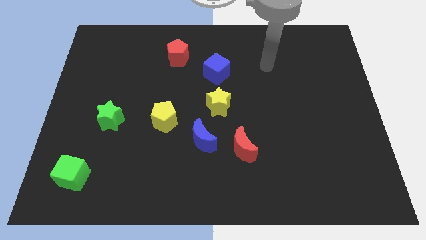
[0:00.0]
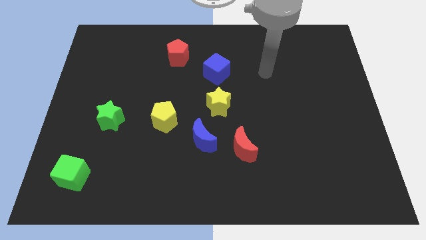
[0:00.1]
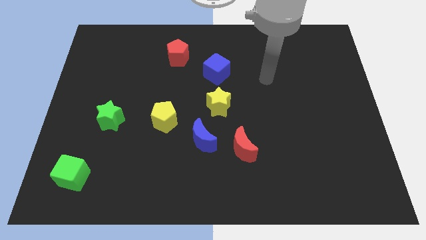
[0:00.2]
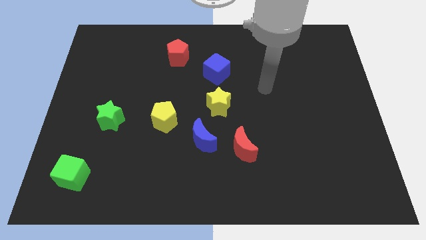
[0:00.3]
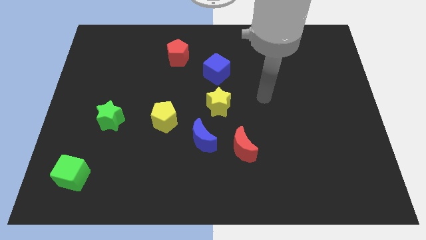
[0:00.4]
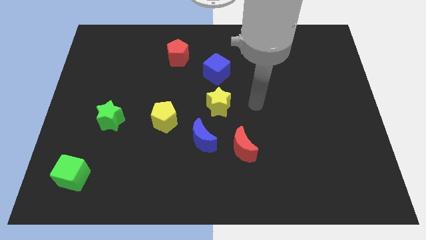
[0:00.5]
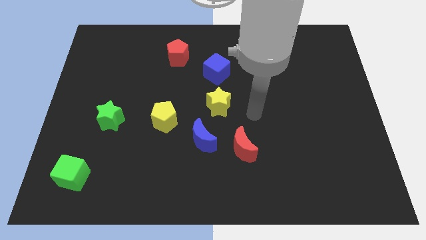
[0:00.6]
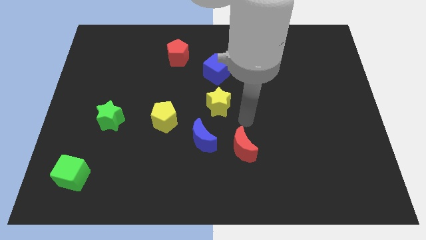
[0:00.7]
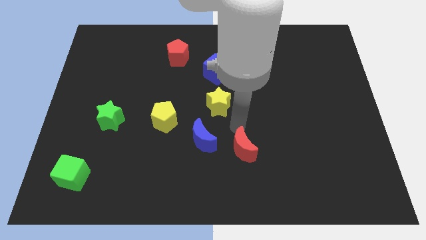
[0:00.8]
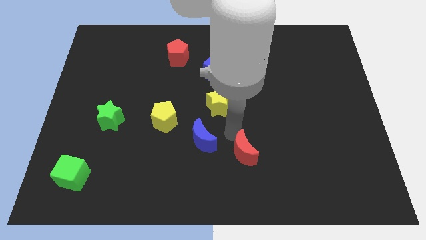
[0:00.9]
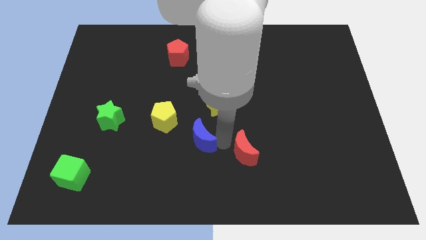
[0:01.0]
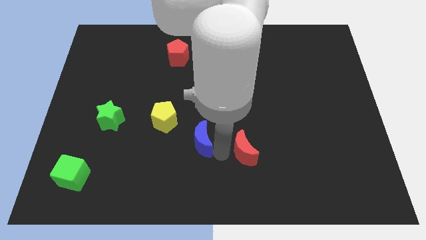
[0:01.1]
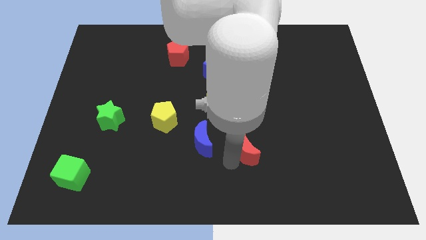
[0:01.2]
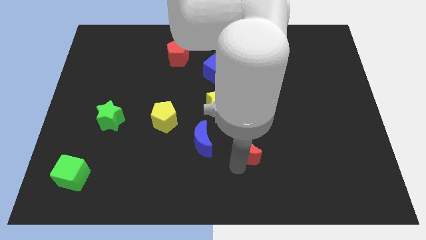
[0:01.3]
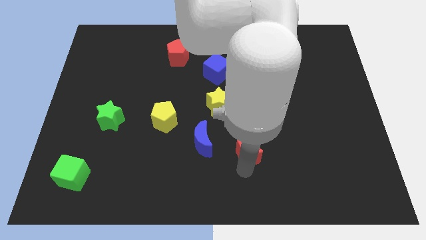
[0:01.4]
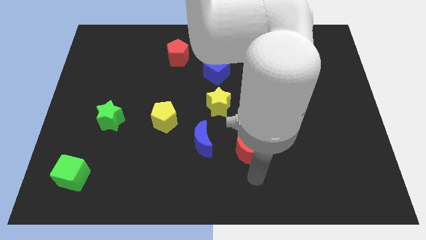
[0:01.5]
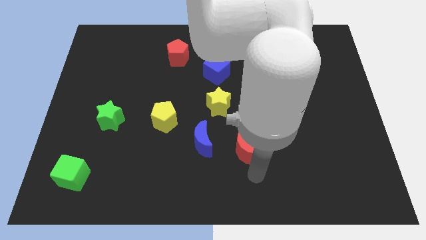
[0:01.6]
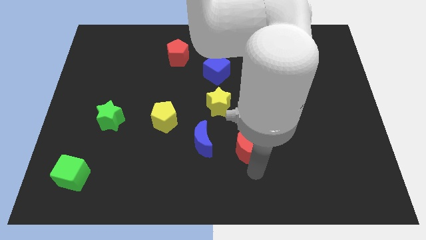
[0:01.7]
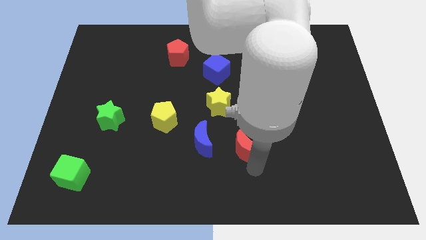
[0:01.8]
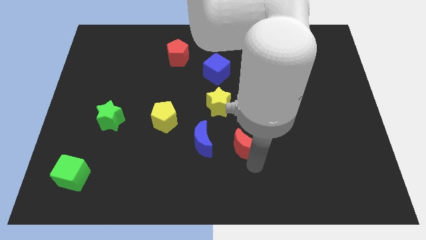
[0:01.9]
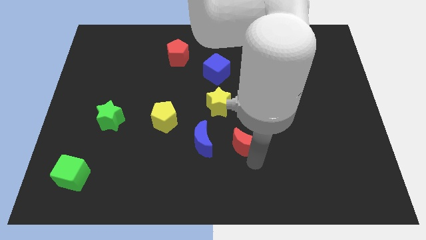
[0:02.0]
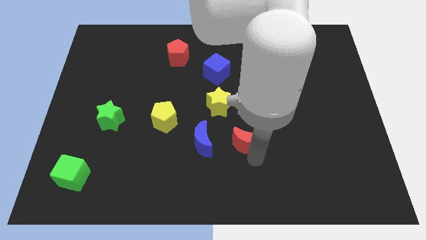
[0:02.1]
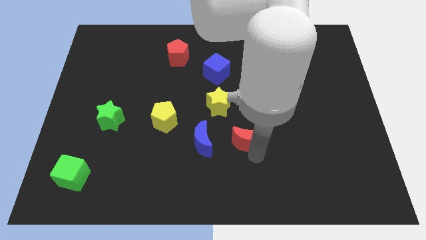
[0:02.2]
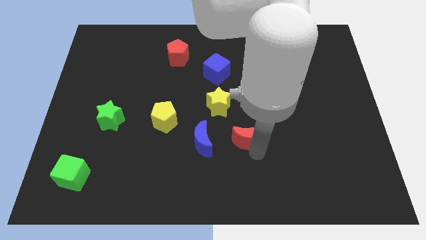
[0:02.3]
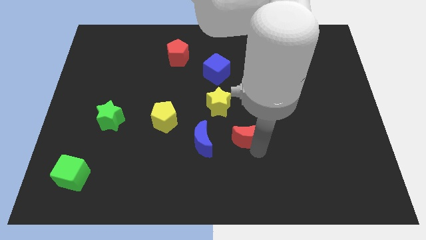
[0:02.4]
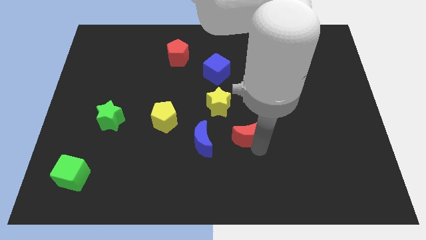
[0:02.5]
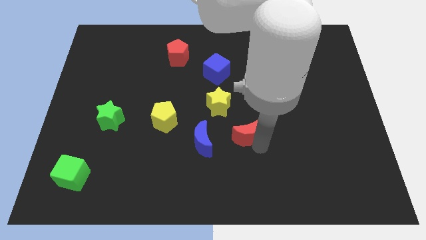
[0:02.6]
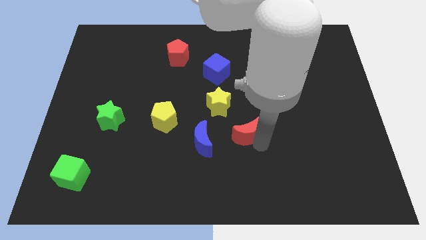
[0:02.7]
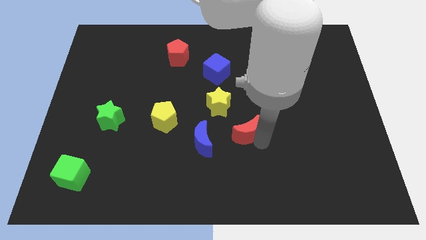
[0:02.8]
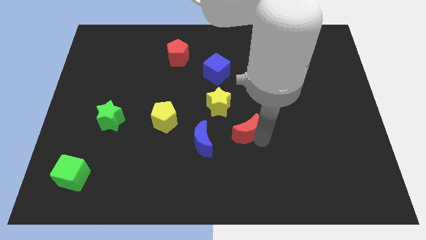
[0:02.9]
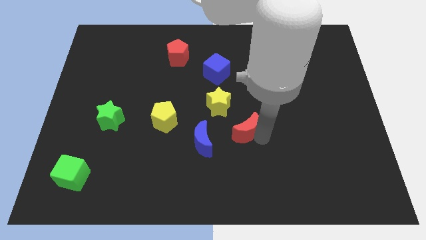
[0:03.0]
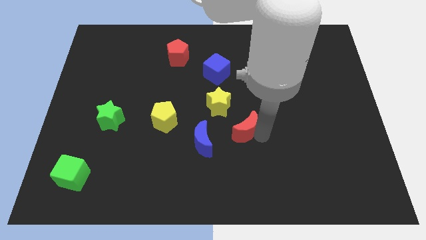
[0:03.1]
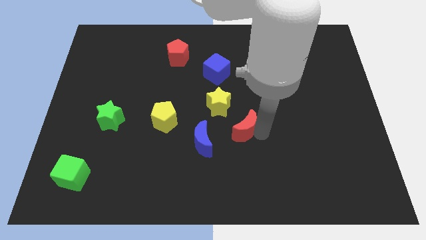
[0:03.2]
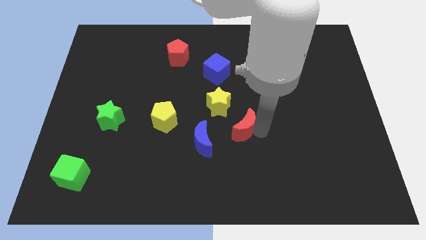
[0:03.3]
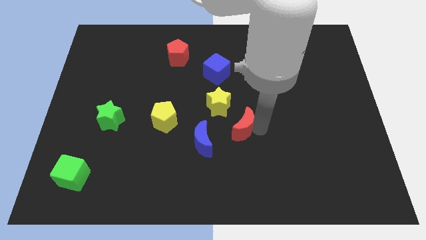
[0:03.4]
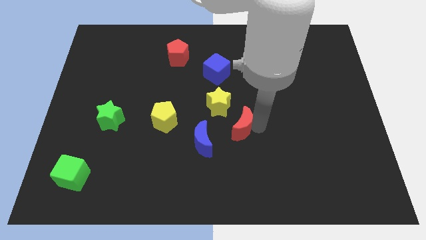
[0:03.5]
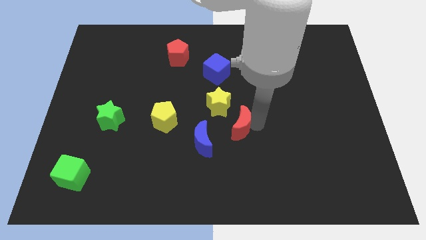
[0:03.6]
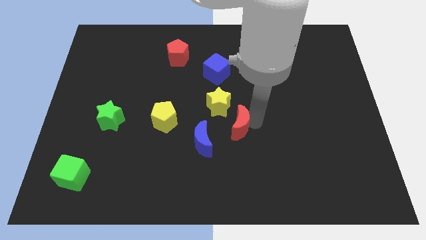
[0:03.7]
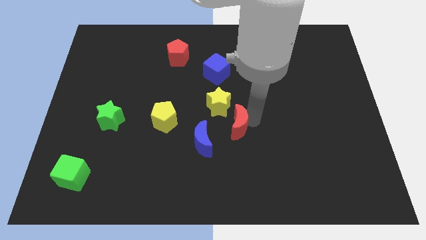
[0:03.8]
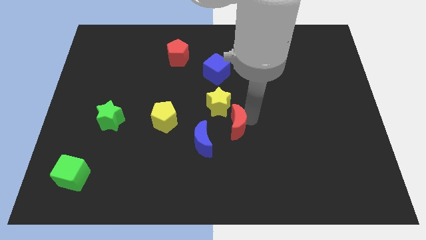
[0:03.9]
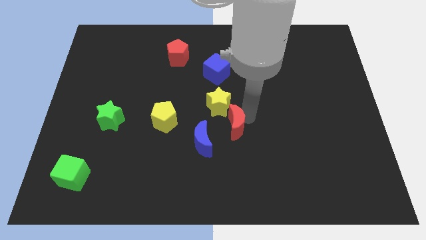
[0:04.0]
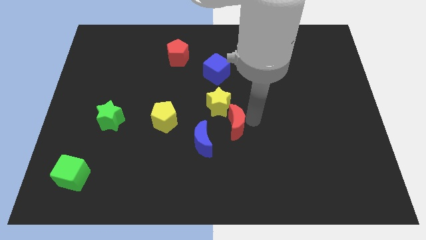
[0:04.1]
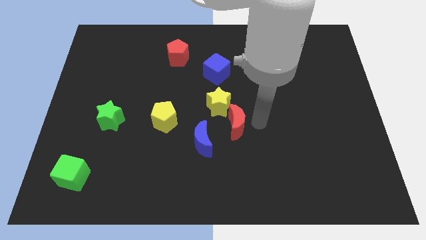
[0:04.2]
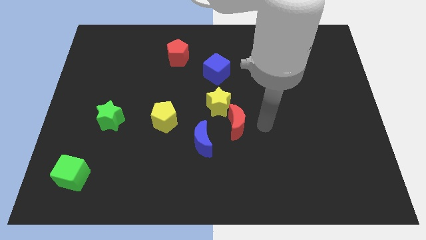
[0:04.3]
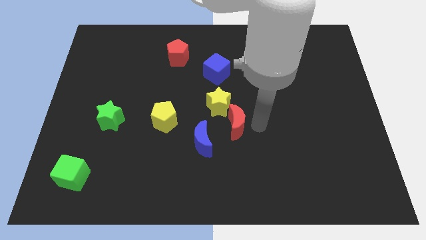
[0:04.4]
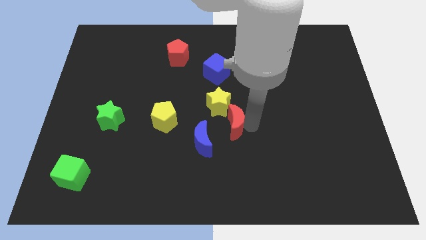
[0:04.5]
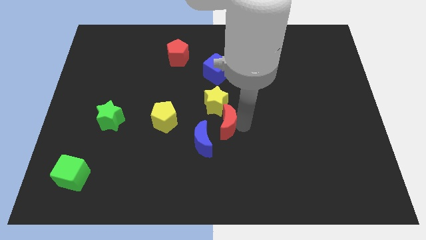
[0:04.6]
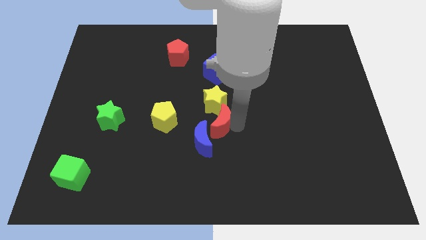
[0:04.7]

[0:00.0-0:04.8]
slightly push the red moon upwards and left

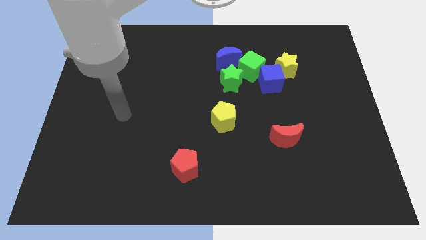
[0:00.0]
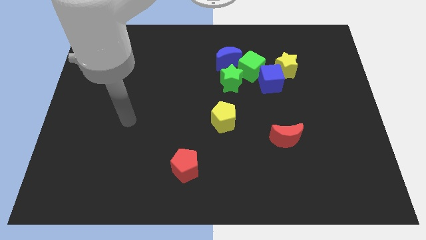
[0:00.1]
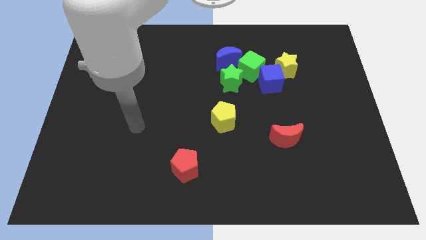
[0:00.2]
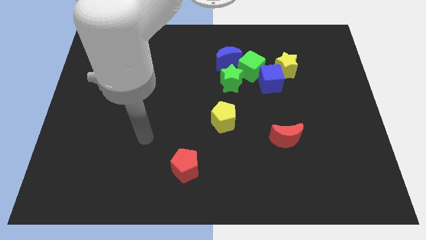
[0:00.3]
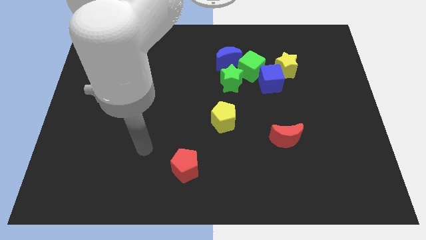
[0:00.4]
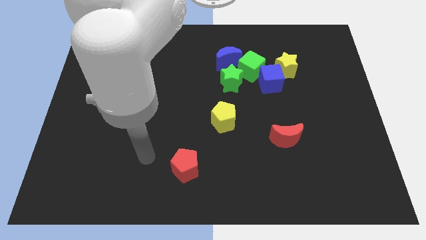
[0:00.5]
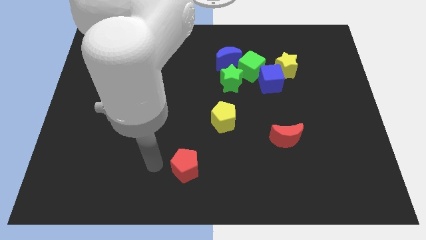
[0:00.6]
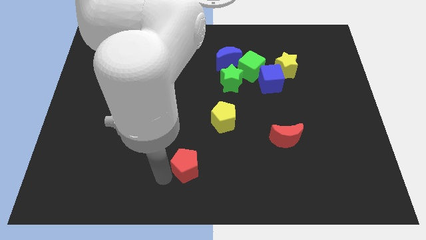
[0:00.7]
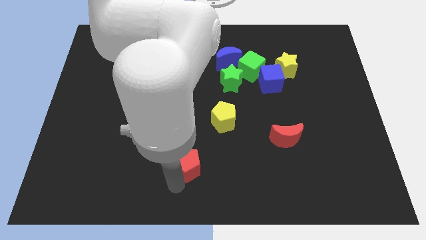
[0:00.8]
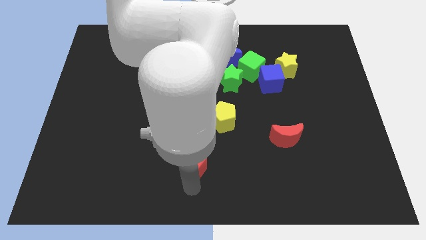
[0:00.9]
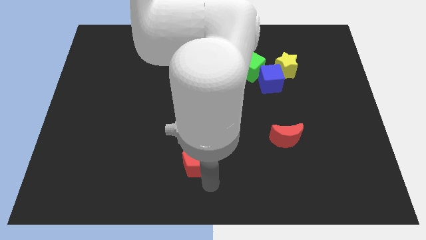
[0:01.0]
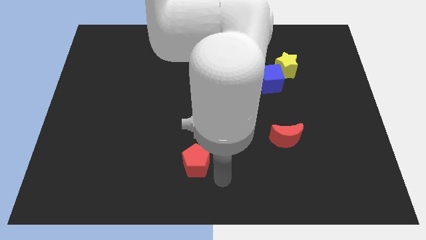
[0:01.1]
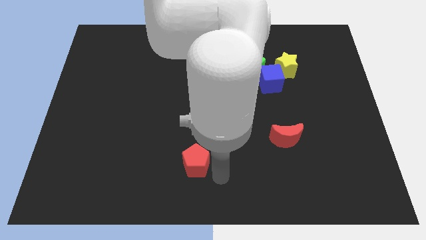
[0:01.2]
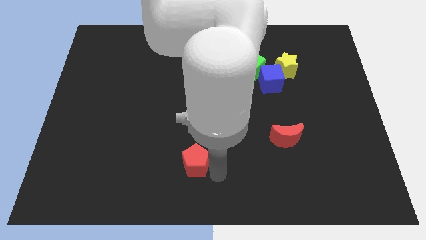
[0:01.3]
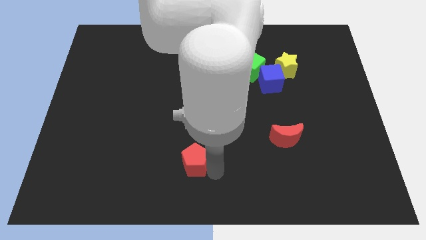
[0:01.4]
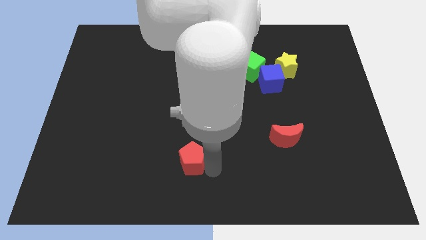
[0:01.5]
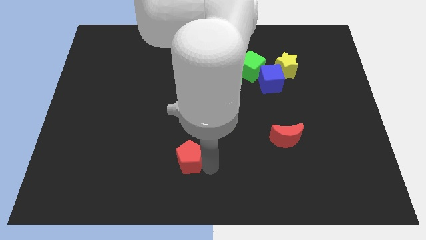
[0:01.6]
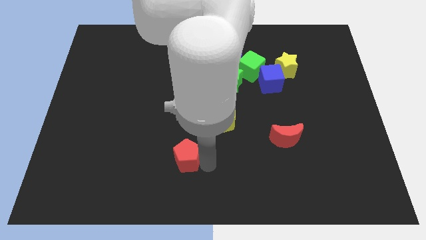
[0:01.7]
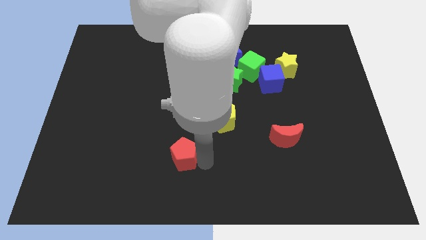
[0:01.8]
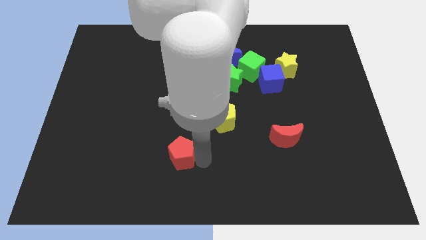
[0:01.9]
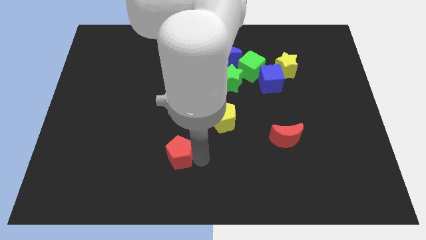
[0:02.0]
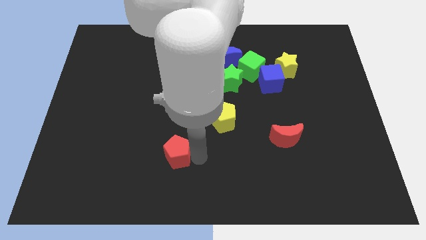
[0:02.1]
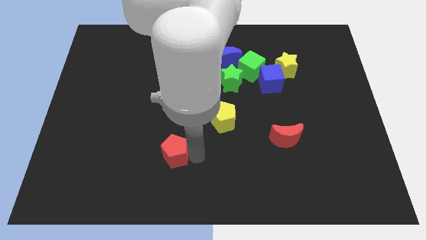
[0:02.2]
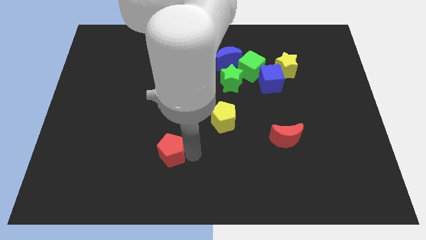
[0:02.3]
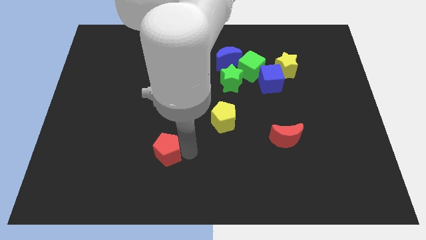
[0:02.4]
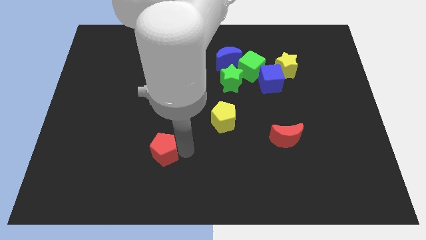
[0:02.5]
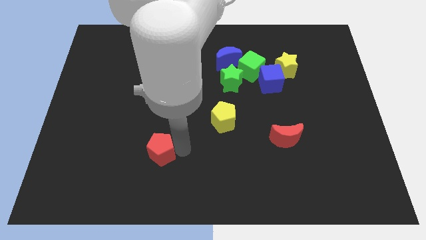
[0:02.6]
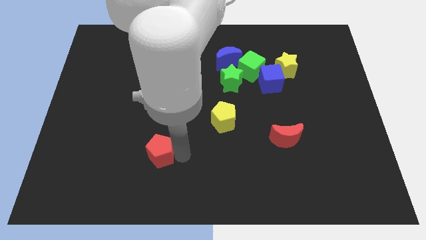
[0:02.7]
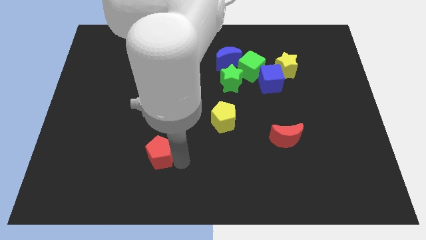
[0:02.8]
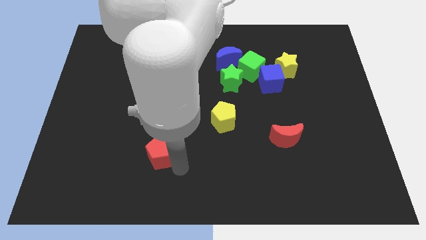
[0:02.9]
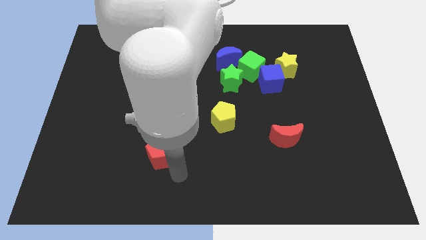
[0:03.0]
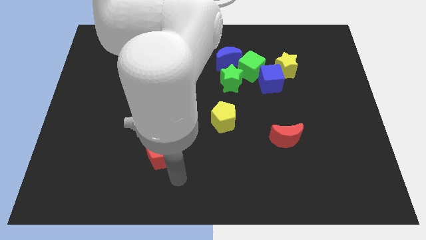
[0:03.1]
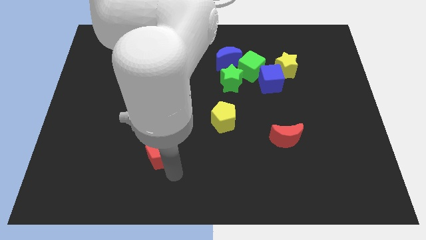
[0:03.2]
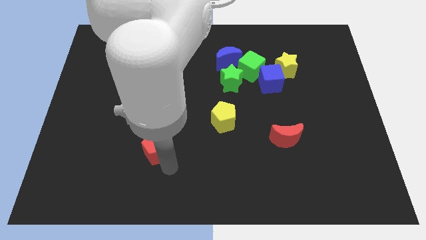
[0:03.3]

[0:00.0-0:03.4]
slightly move the red pentagon up and then to the left
